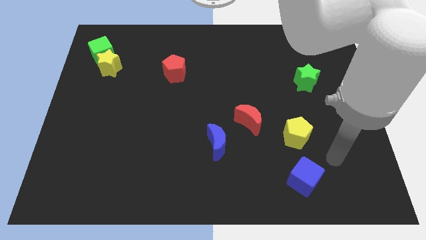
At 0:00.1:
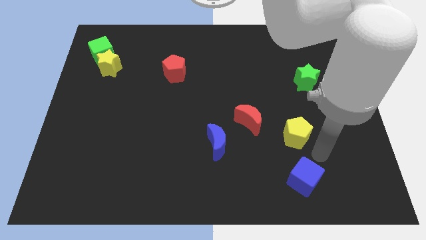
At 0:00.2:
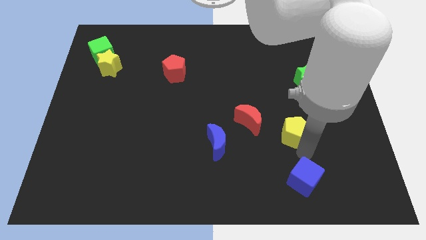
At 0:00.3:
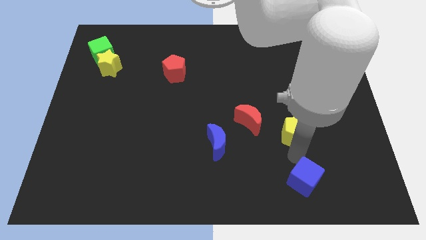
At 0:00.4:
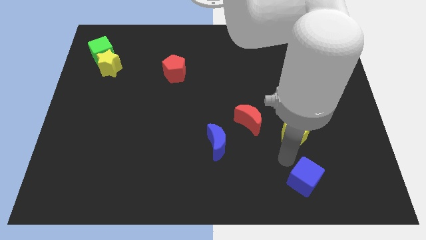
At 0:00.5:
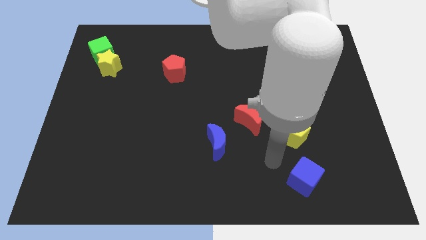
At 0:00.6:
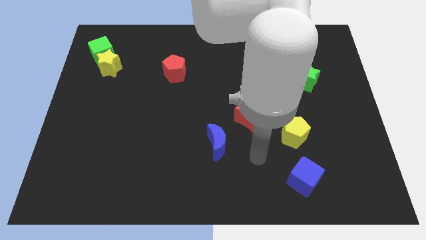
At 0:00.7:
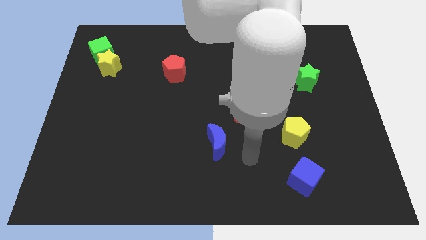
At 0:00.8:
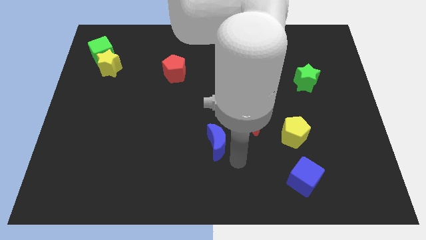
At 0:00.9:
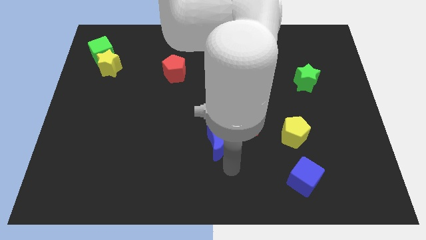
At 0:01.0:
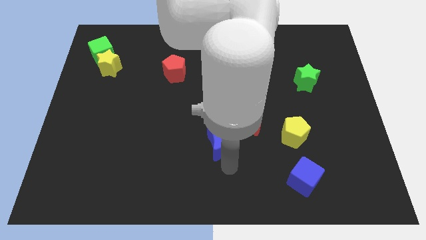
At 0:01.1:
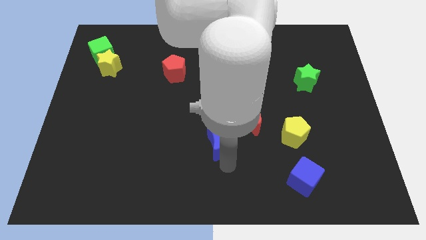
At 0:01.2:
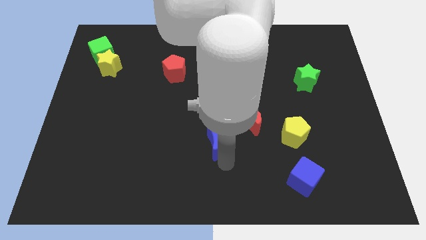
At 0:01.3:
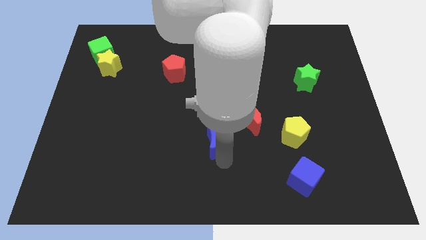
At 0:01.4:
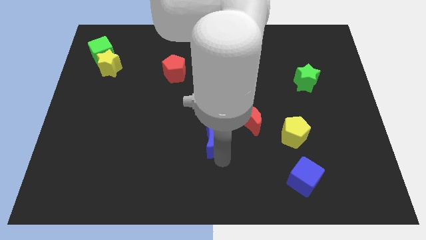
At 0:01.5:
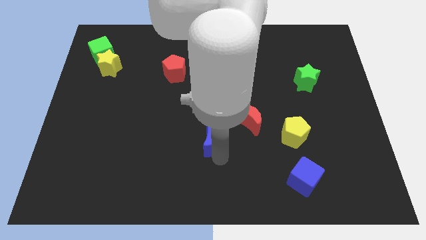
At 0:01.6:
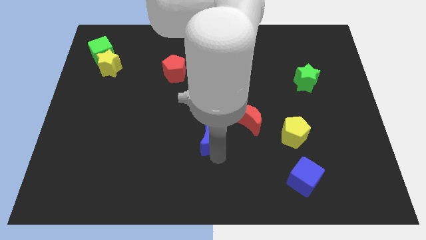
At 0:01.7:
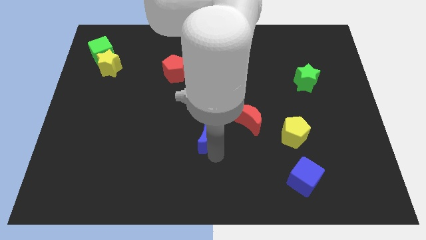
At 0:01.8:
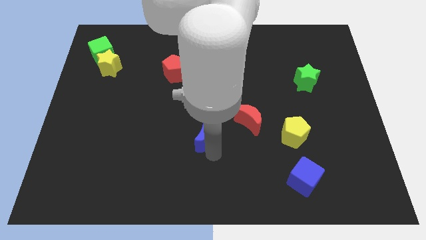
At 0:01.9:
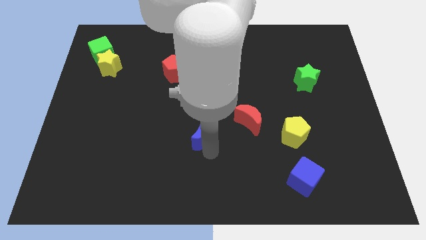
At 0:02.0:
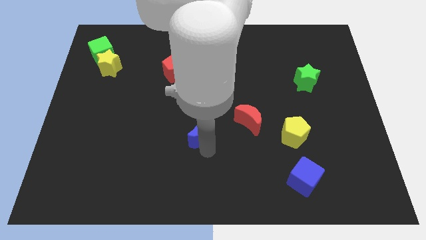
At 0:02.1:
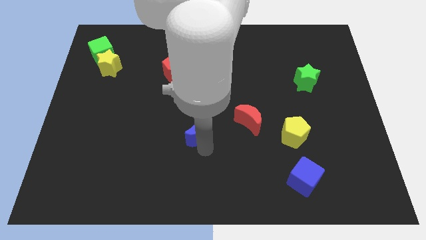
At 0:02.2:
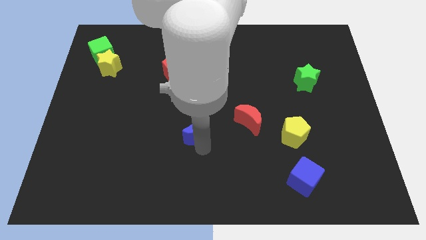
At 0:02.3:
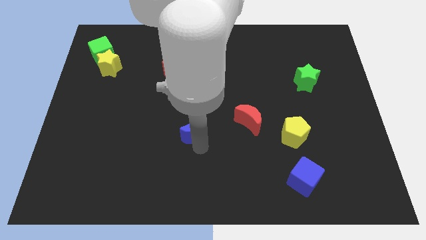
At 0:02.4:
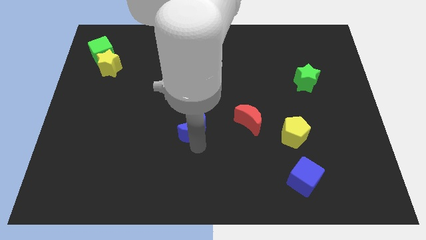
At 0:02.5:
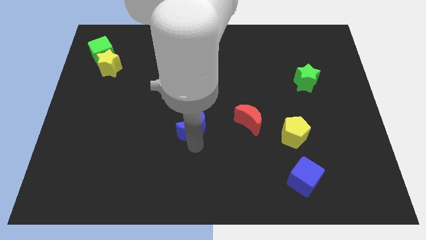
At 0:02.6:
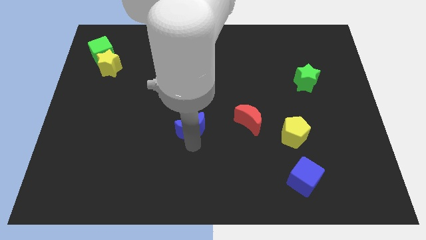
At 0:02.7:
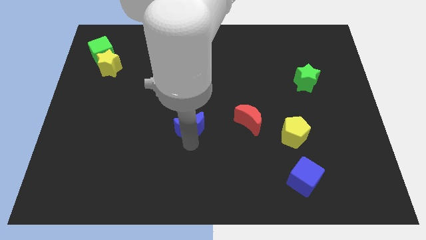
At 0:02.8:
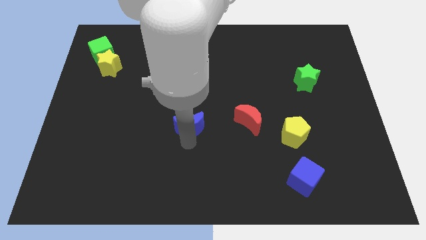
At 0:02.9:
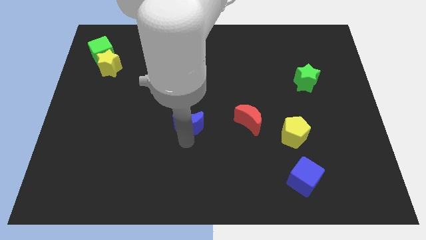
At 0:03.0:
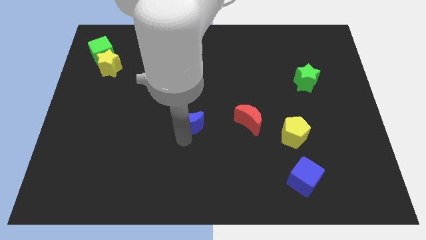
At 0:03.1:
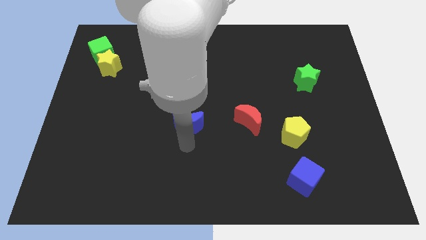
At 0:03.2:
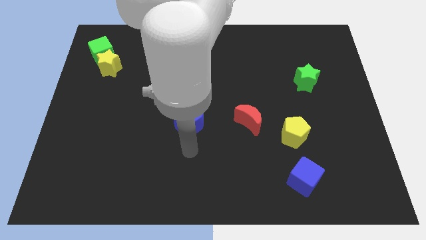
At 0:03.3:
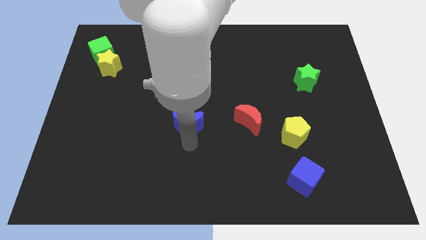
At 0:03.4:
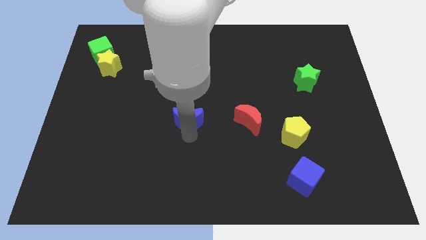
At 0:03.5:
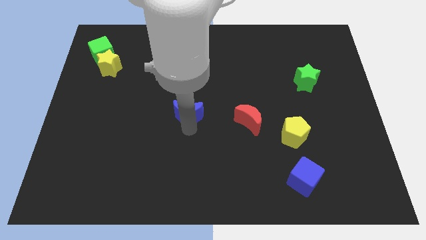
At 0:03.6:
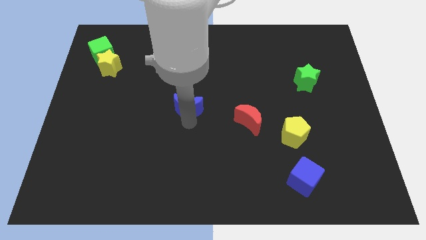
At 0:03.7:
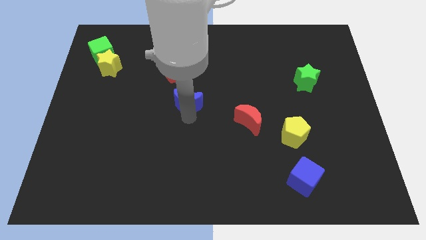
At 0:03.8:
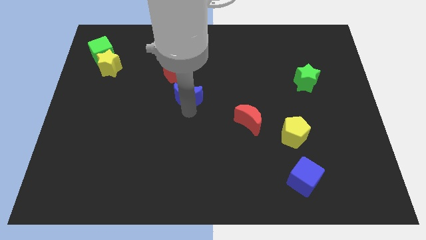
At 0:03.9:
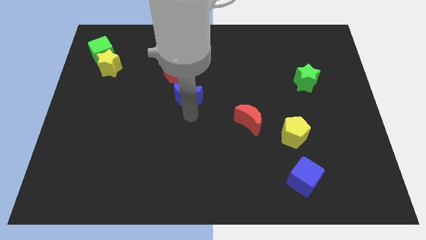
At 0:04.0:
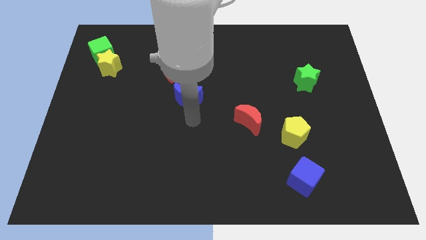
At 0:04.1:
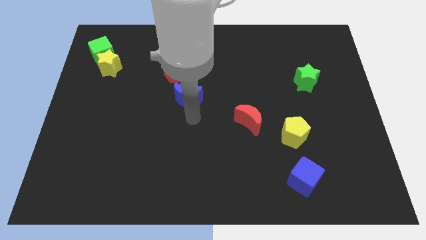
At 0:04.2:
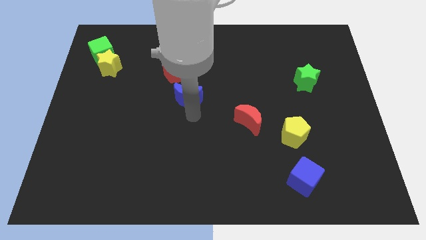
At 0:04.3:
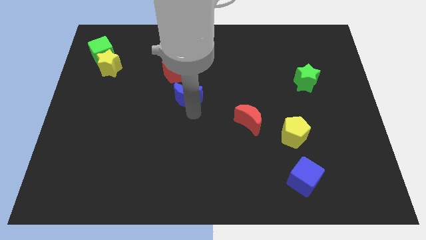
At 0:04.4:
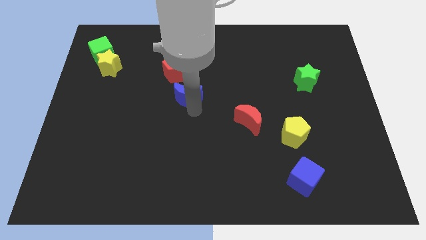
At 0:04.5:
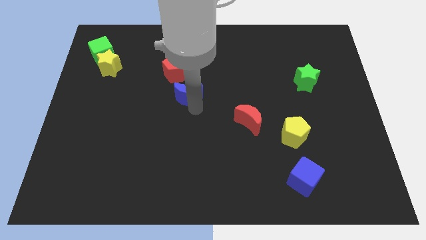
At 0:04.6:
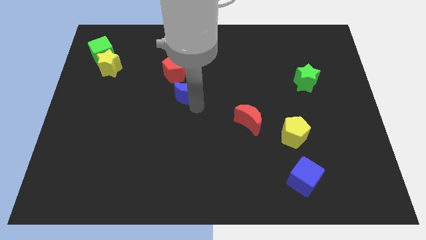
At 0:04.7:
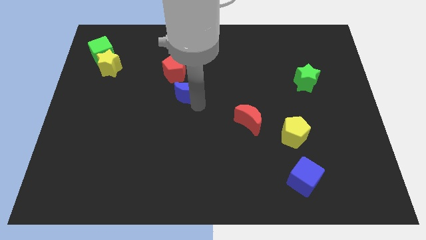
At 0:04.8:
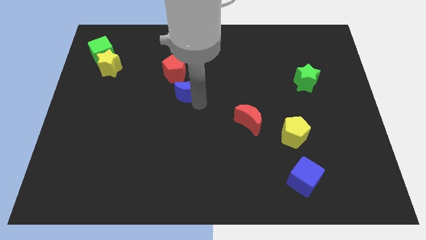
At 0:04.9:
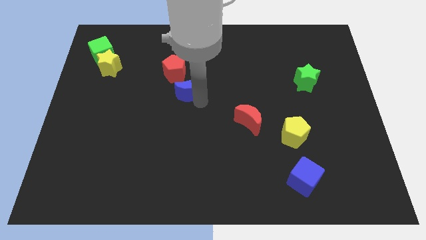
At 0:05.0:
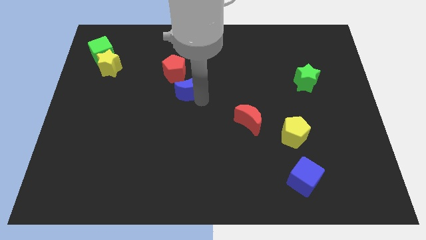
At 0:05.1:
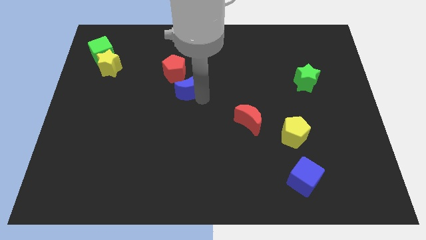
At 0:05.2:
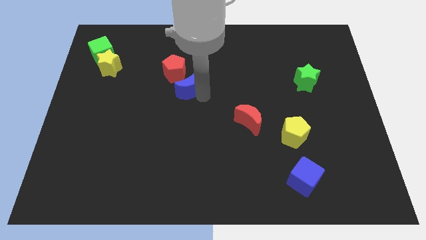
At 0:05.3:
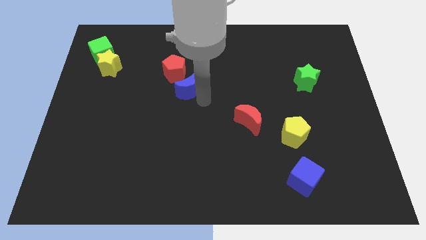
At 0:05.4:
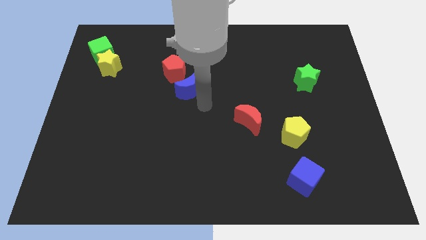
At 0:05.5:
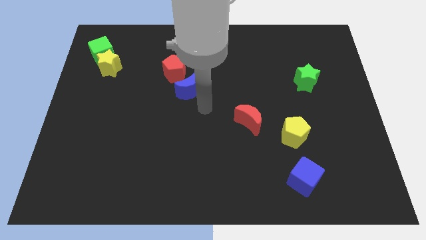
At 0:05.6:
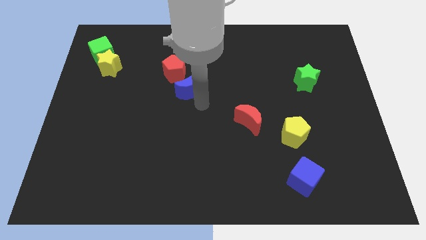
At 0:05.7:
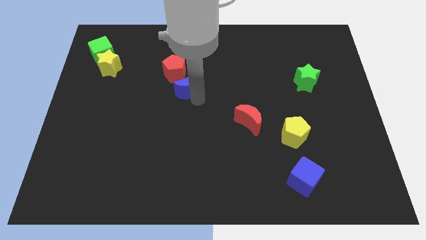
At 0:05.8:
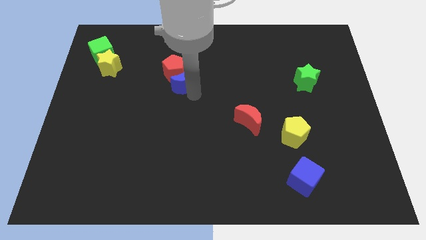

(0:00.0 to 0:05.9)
push the blue moon close to the red pentagon

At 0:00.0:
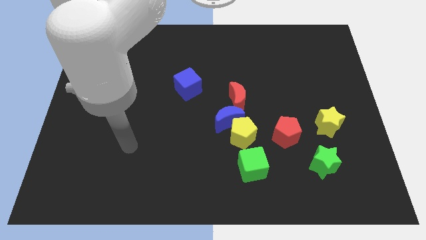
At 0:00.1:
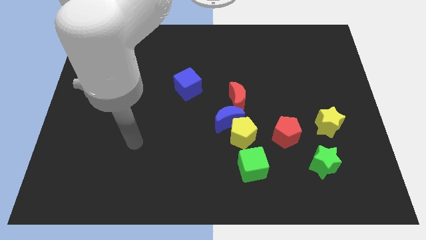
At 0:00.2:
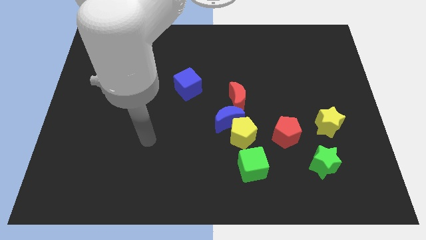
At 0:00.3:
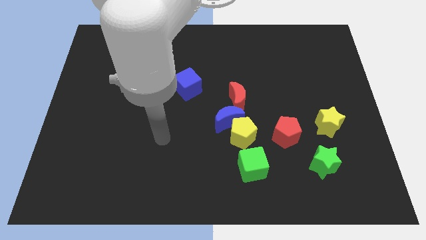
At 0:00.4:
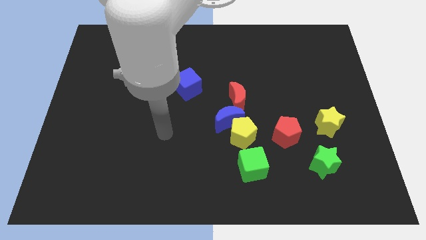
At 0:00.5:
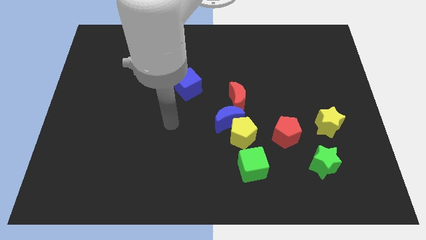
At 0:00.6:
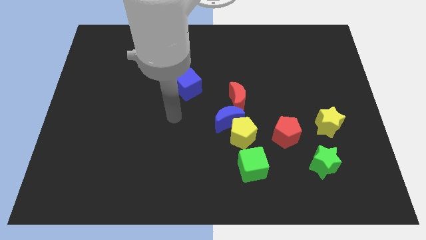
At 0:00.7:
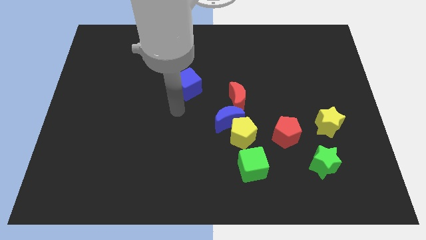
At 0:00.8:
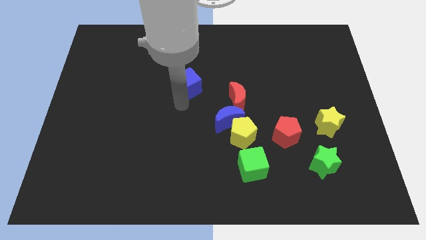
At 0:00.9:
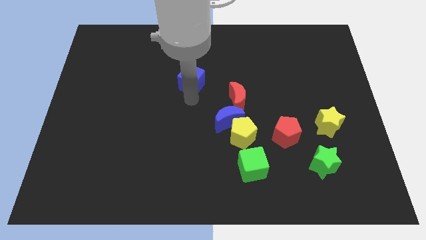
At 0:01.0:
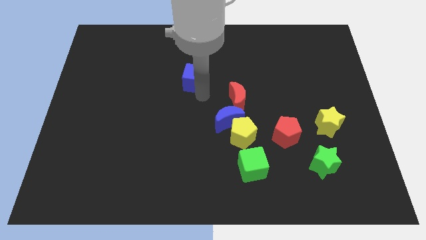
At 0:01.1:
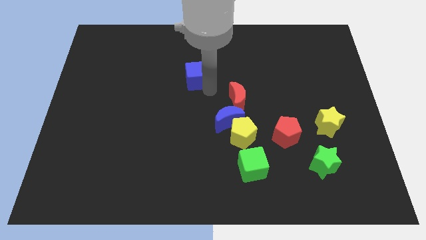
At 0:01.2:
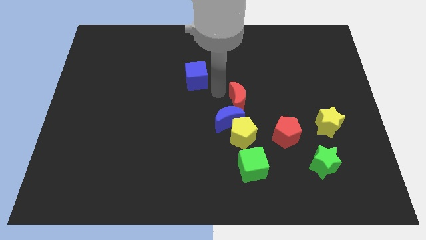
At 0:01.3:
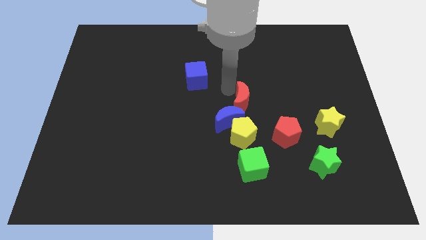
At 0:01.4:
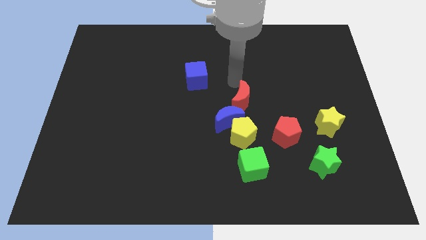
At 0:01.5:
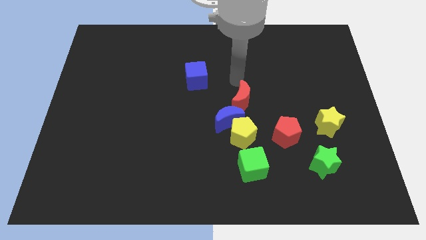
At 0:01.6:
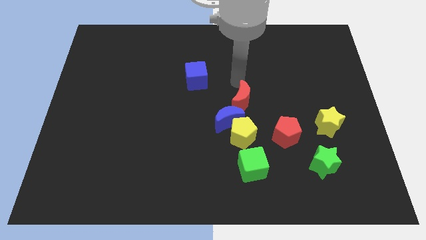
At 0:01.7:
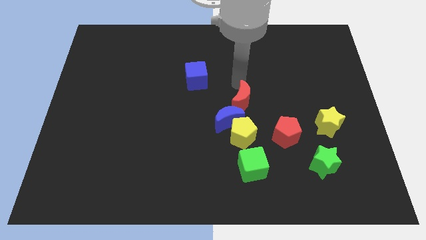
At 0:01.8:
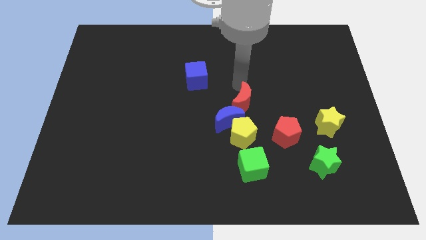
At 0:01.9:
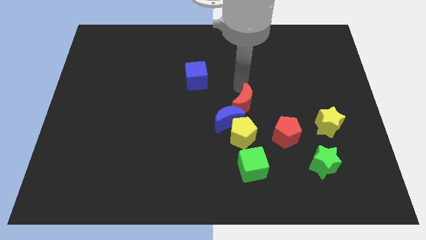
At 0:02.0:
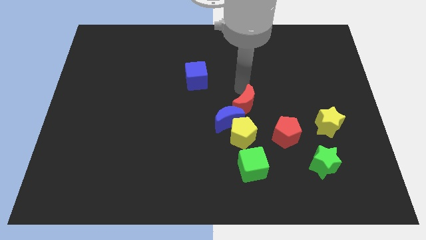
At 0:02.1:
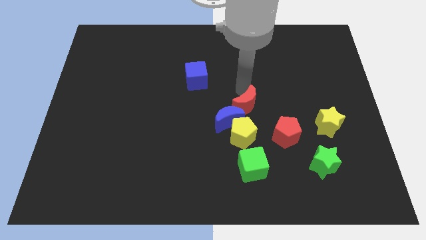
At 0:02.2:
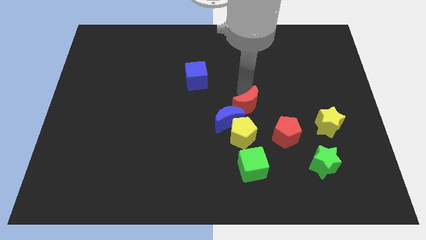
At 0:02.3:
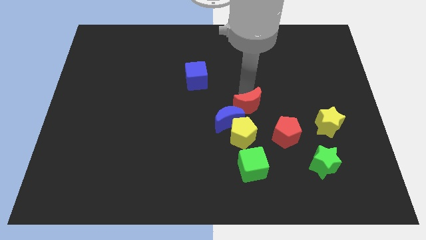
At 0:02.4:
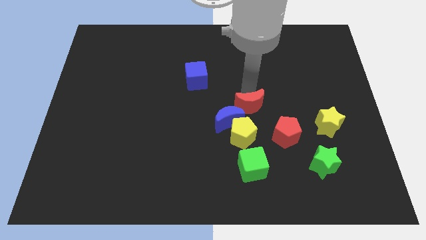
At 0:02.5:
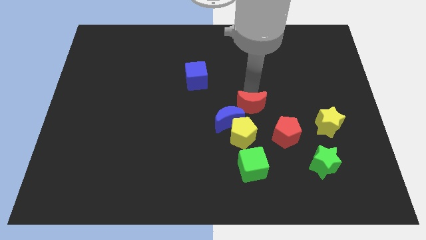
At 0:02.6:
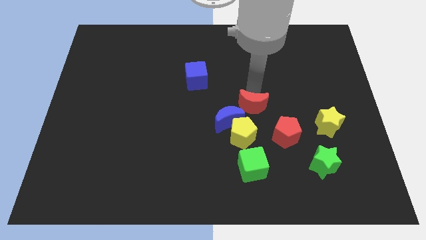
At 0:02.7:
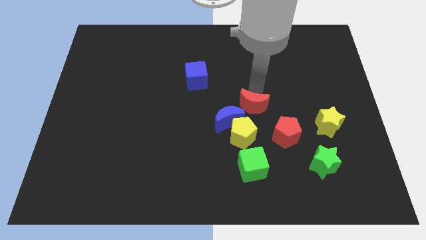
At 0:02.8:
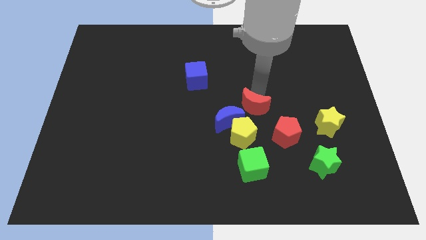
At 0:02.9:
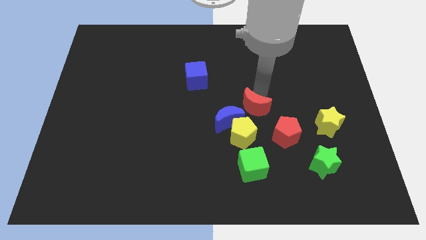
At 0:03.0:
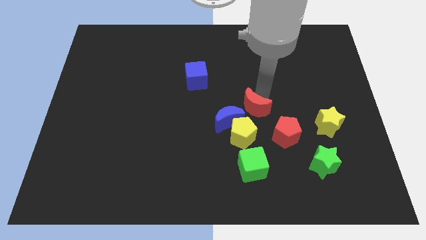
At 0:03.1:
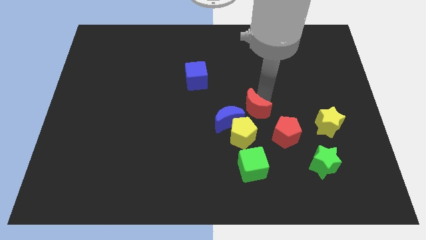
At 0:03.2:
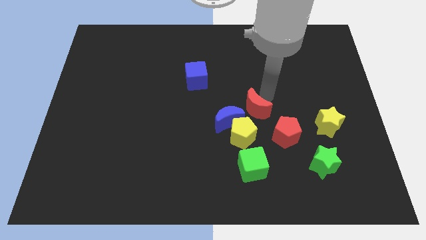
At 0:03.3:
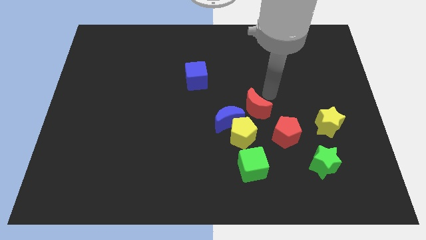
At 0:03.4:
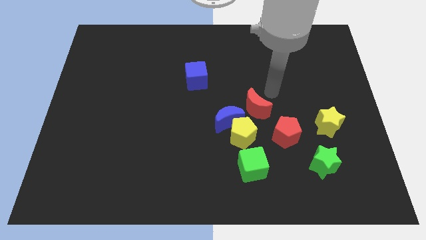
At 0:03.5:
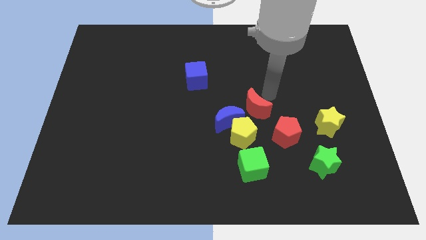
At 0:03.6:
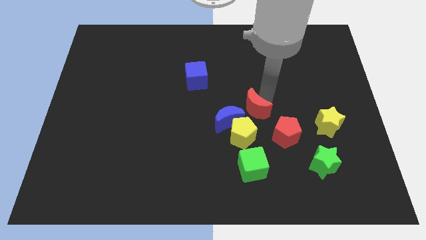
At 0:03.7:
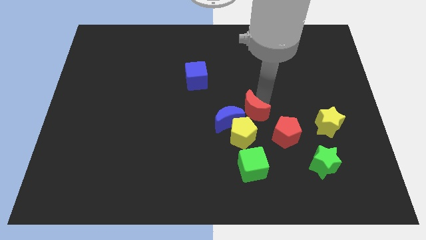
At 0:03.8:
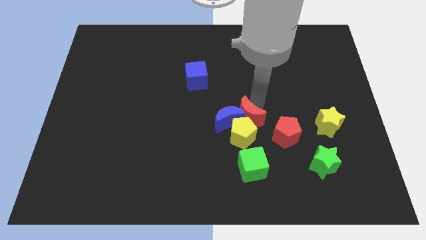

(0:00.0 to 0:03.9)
slide the red moon close to the yellow pentagon
